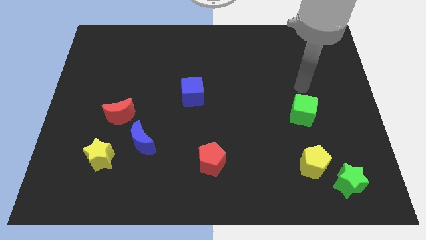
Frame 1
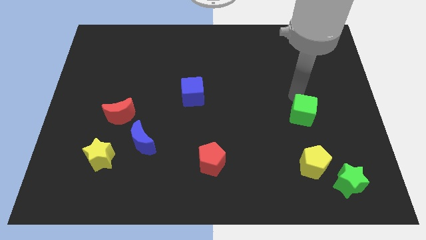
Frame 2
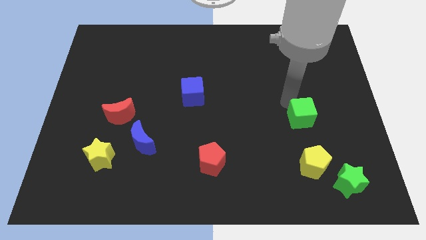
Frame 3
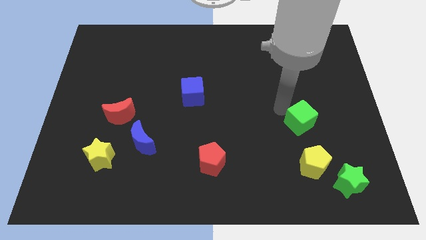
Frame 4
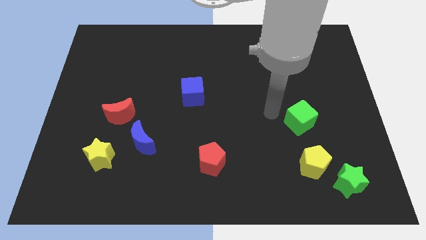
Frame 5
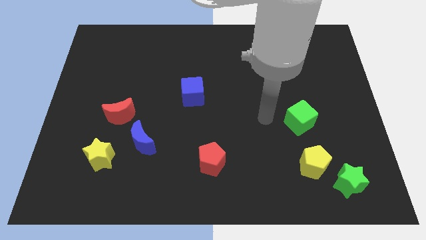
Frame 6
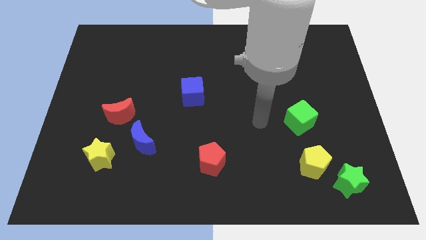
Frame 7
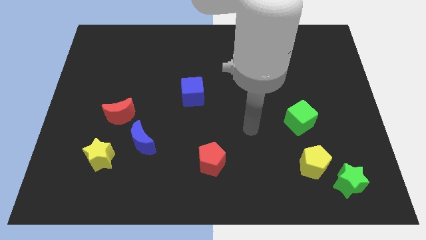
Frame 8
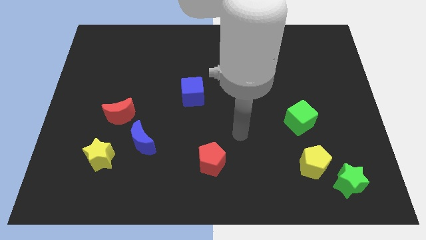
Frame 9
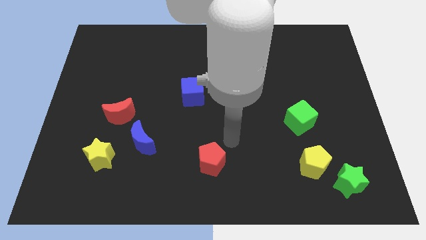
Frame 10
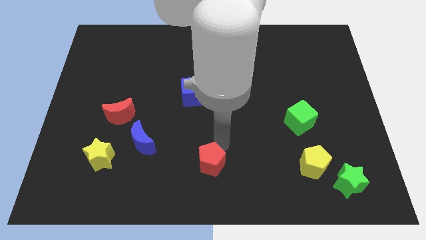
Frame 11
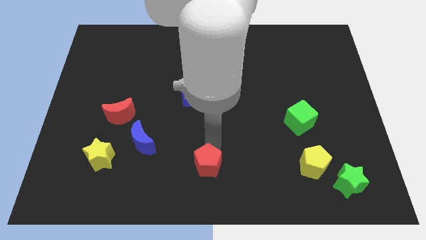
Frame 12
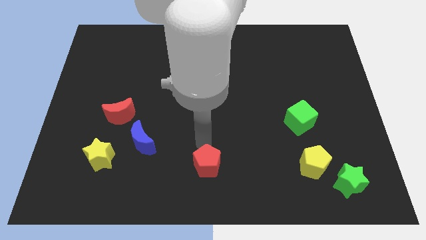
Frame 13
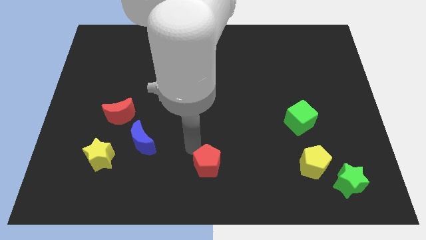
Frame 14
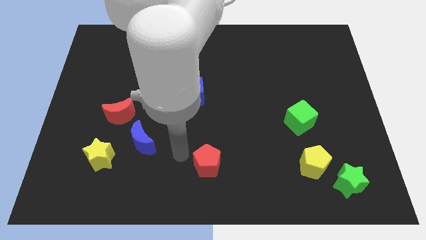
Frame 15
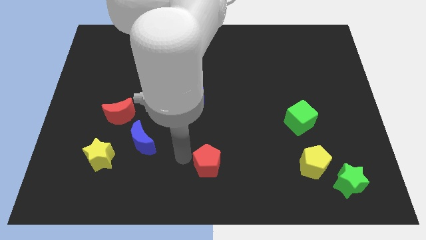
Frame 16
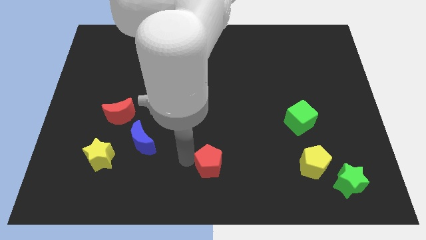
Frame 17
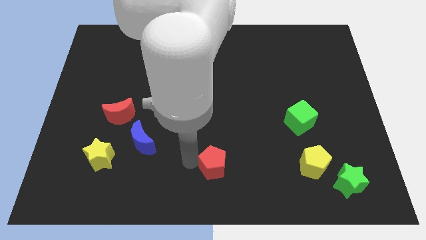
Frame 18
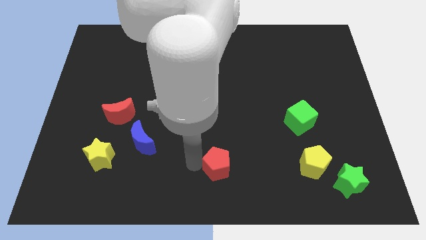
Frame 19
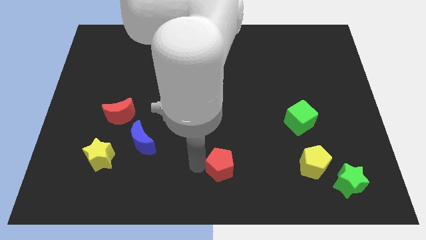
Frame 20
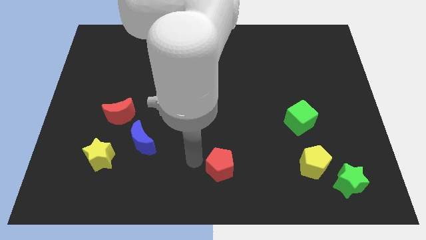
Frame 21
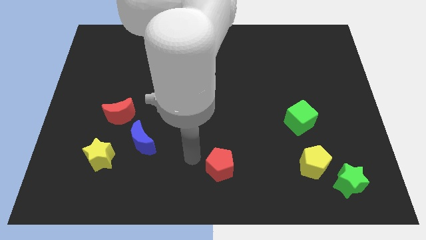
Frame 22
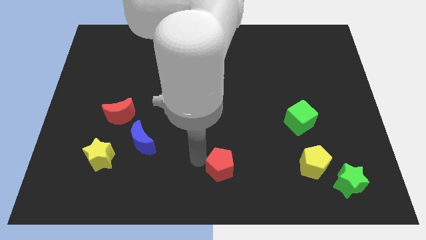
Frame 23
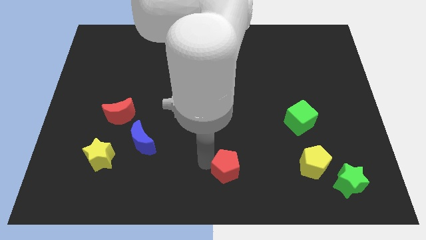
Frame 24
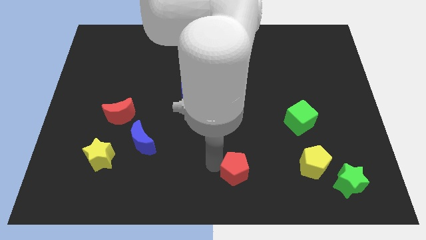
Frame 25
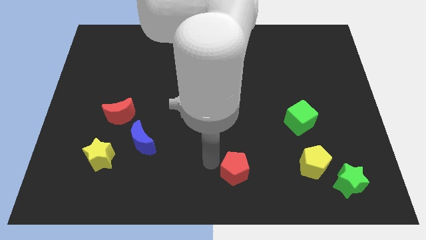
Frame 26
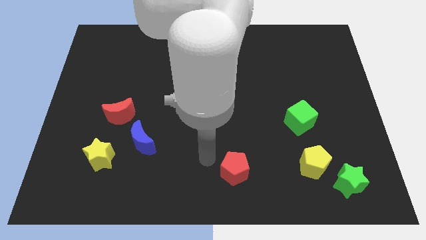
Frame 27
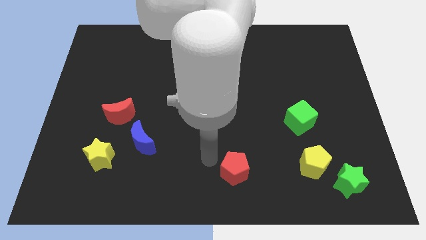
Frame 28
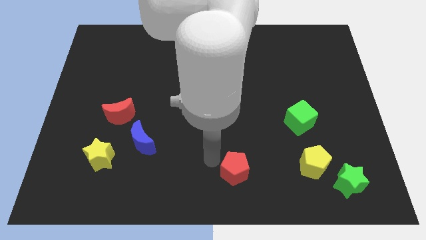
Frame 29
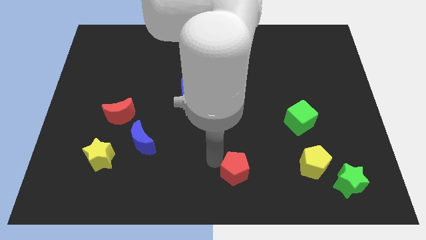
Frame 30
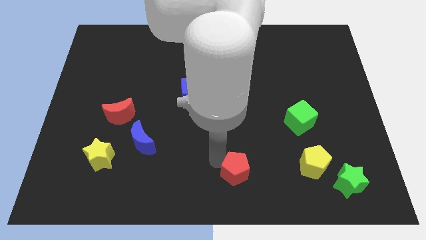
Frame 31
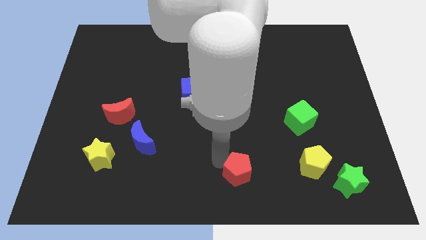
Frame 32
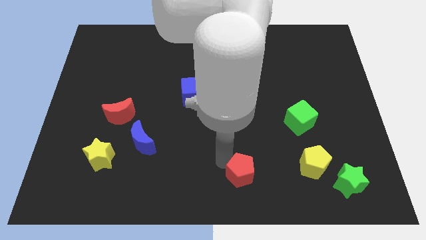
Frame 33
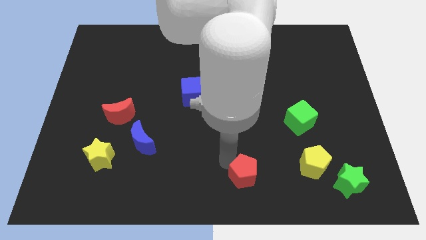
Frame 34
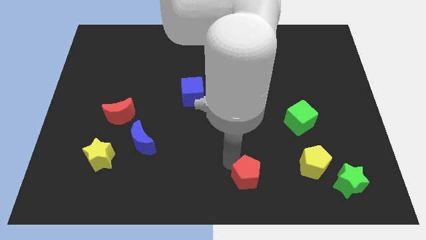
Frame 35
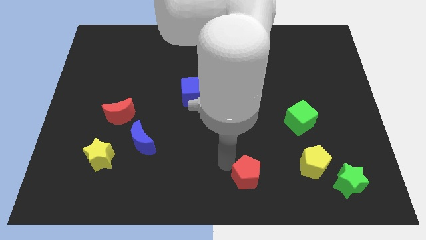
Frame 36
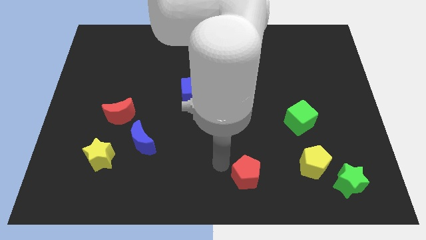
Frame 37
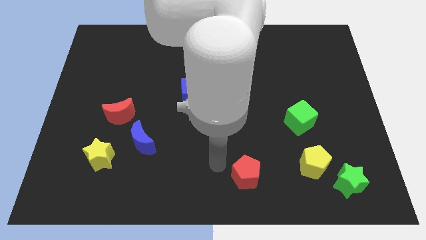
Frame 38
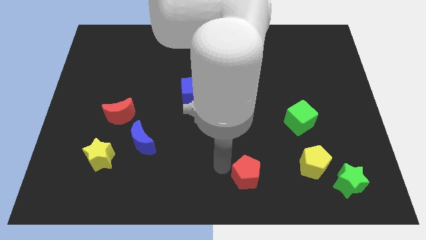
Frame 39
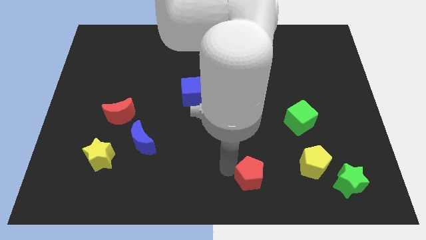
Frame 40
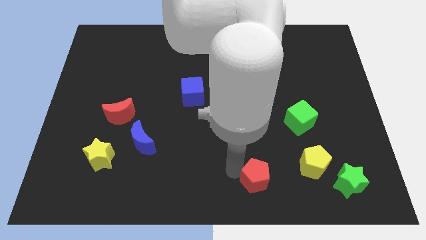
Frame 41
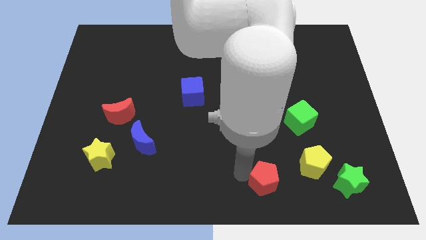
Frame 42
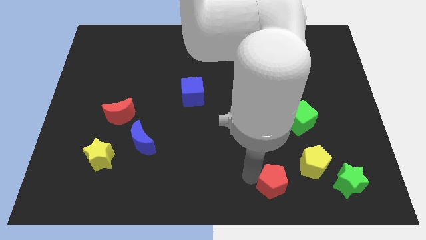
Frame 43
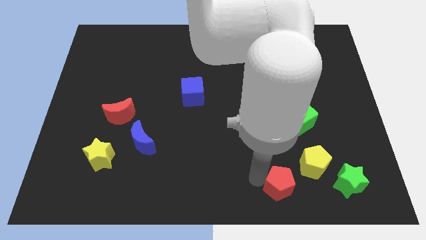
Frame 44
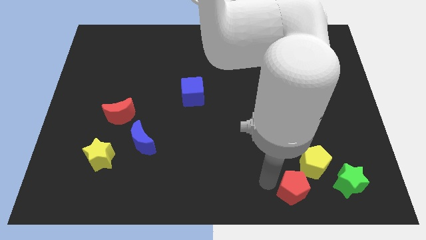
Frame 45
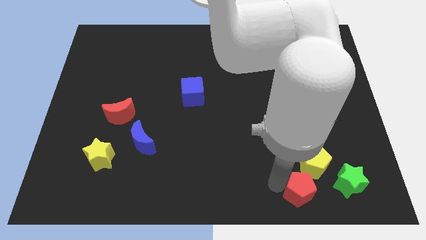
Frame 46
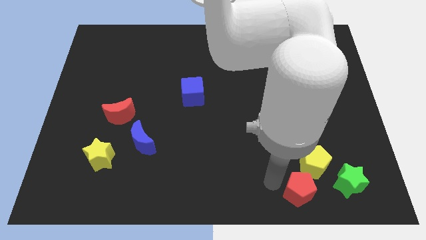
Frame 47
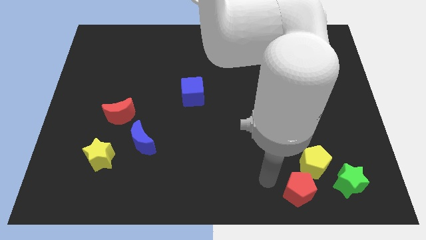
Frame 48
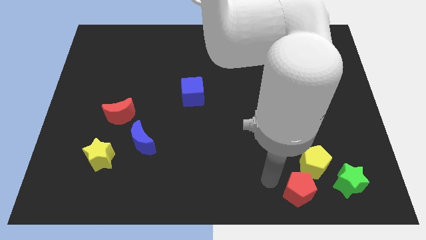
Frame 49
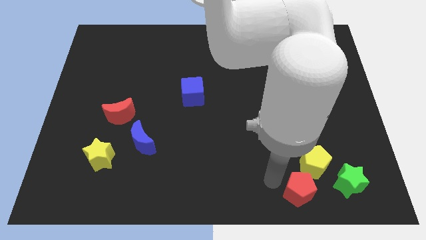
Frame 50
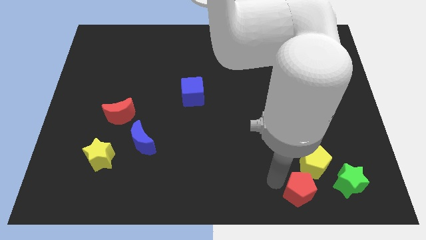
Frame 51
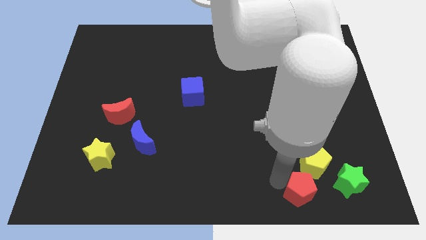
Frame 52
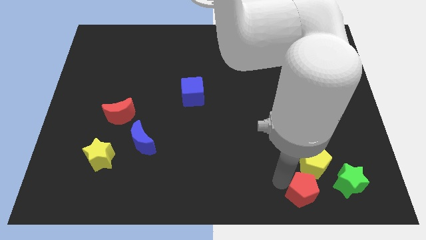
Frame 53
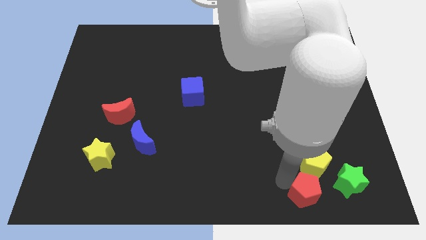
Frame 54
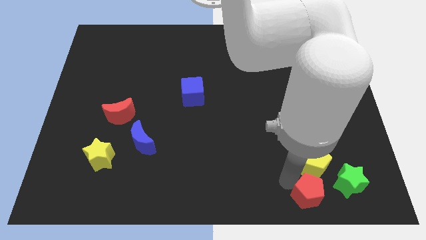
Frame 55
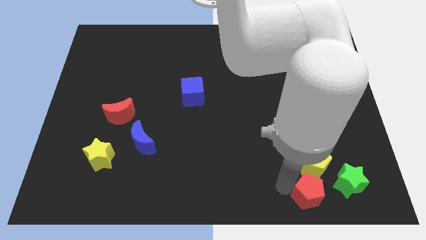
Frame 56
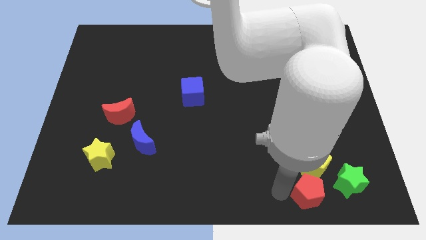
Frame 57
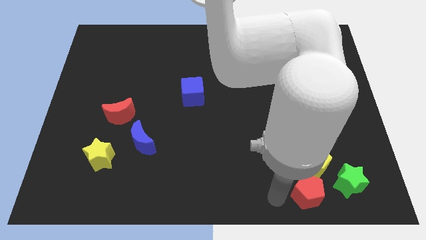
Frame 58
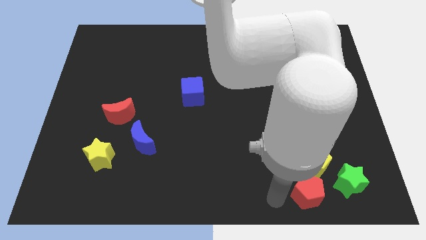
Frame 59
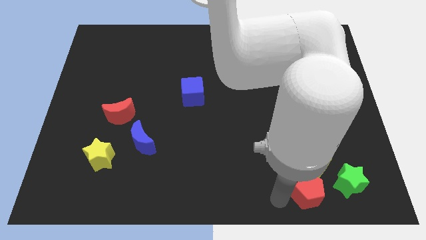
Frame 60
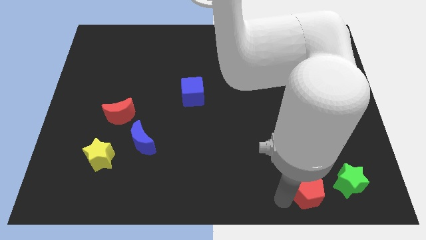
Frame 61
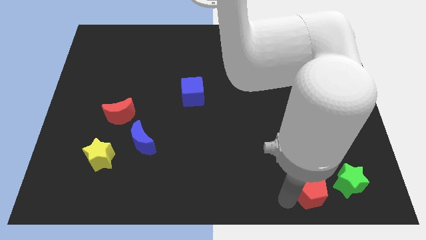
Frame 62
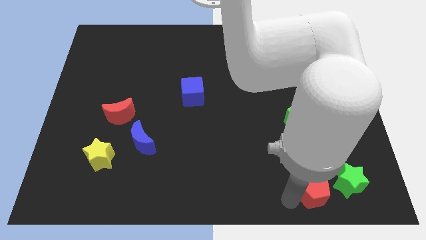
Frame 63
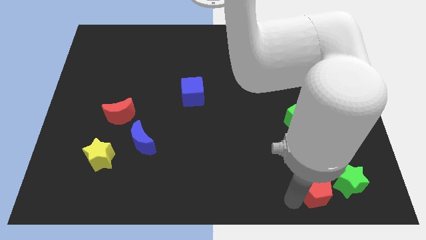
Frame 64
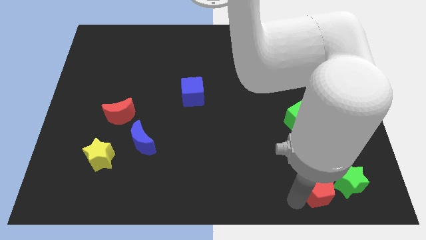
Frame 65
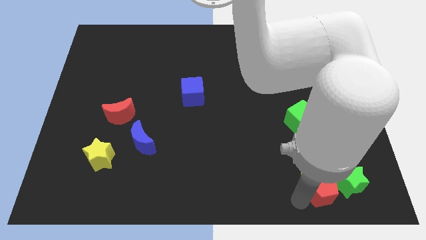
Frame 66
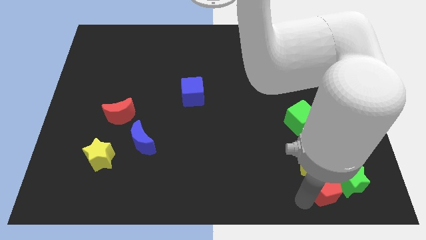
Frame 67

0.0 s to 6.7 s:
push the red pentagon next to the green star

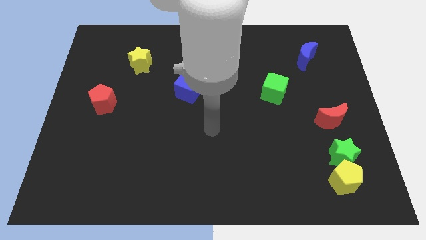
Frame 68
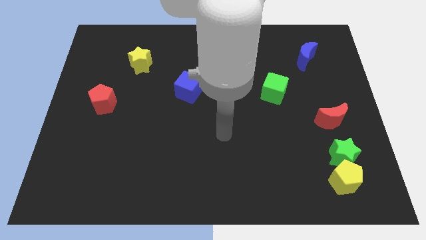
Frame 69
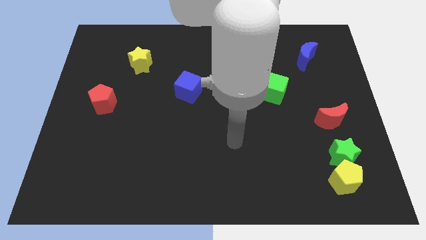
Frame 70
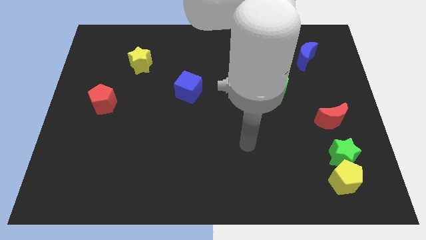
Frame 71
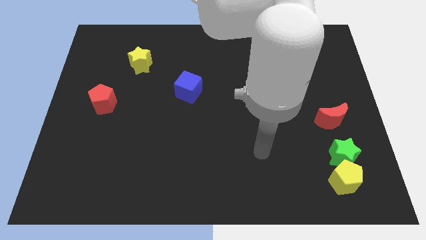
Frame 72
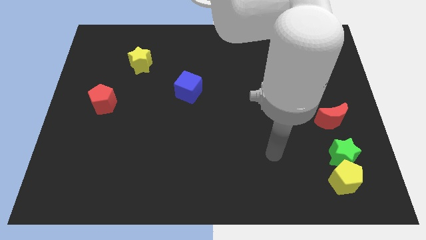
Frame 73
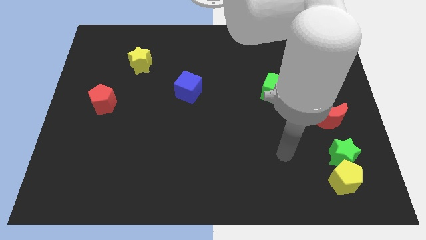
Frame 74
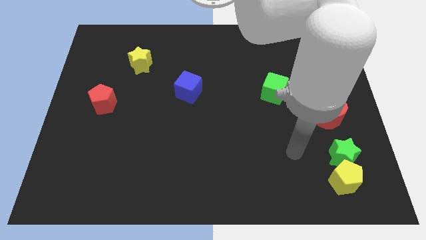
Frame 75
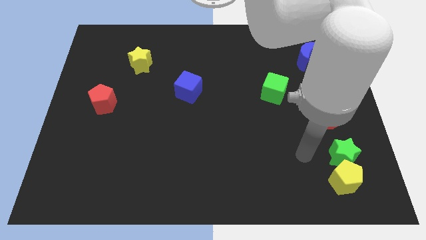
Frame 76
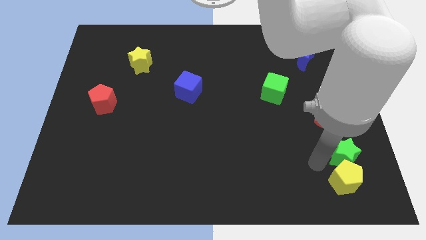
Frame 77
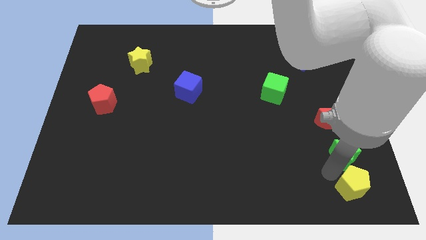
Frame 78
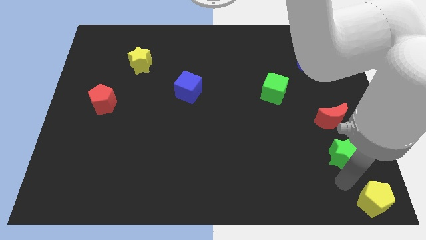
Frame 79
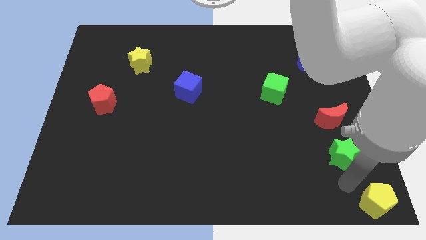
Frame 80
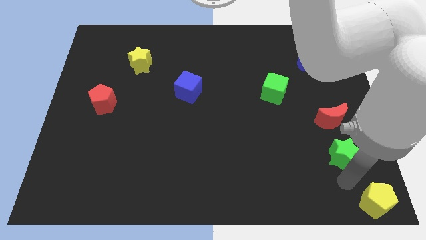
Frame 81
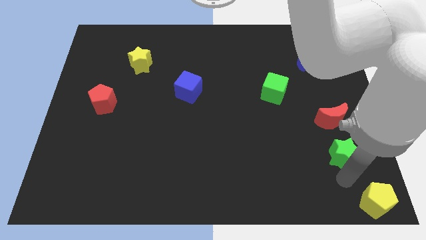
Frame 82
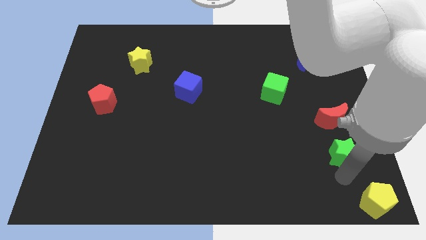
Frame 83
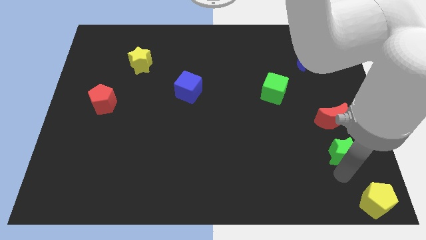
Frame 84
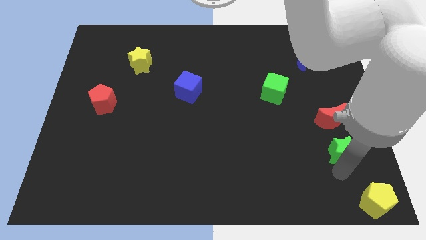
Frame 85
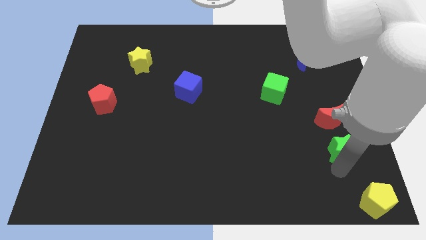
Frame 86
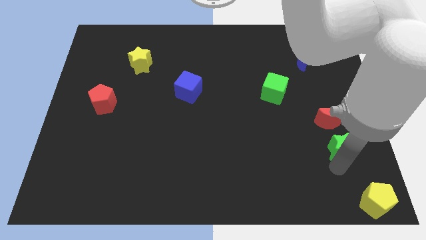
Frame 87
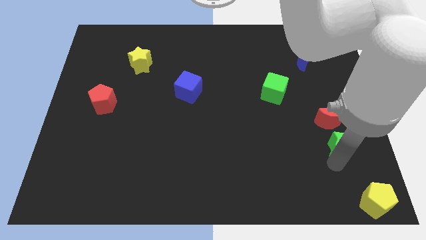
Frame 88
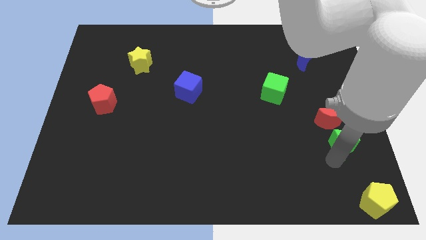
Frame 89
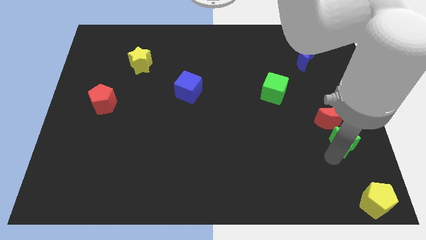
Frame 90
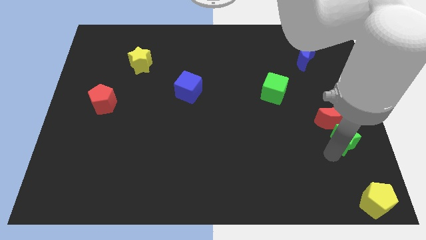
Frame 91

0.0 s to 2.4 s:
move the green star to the red moon
